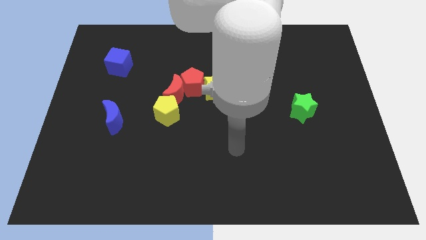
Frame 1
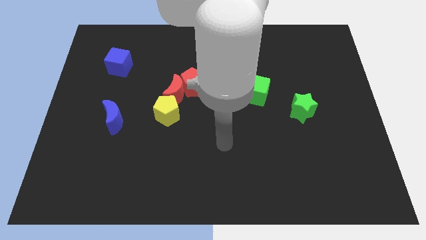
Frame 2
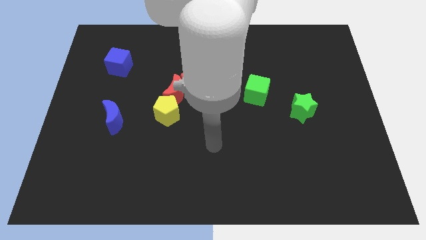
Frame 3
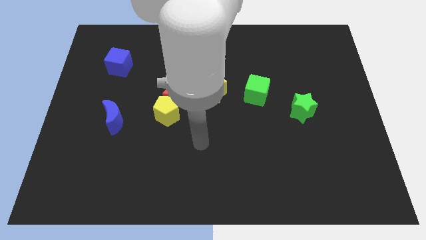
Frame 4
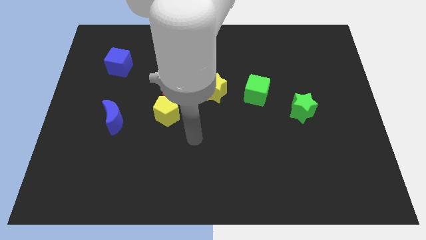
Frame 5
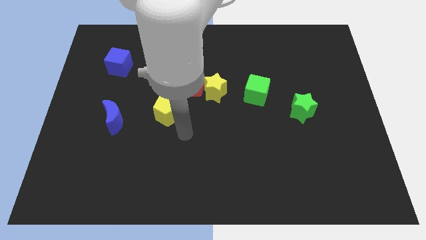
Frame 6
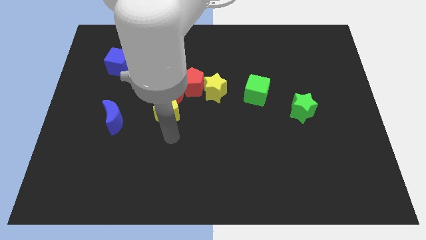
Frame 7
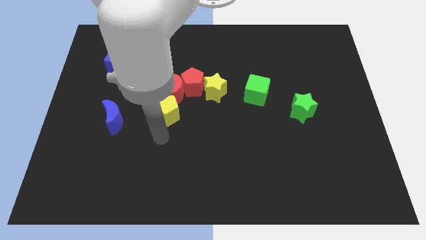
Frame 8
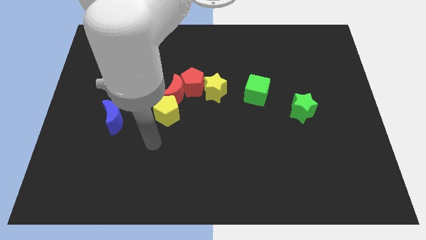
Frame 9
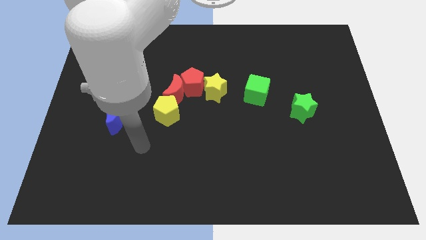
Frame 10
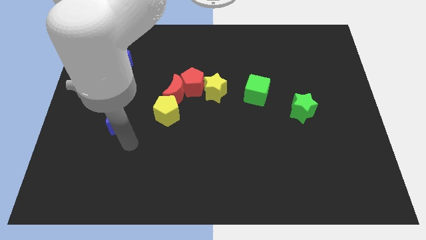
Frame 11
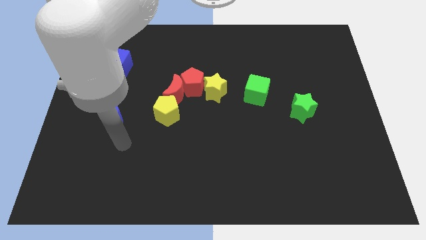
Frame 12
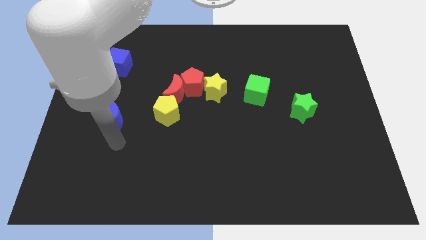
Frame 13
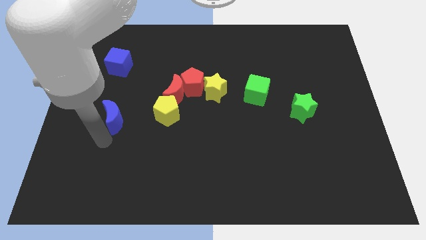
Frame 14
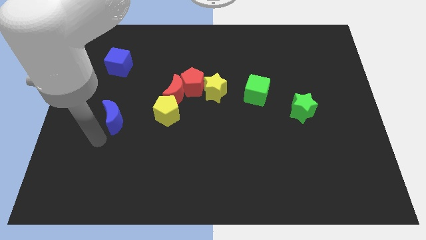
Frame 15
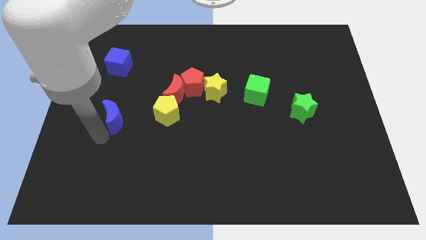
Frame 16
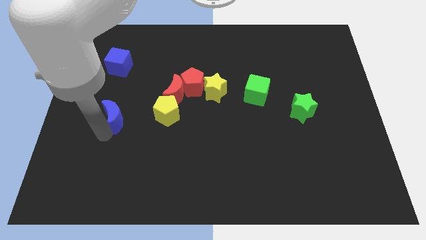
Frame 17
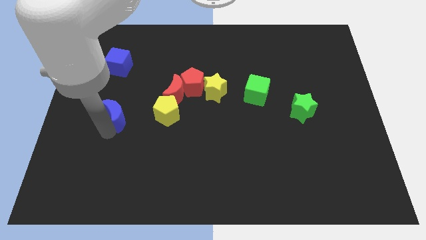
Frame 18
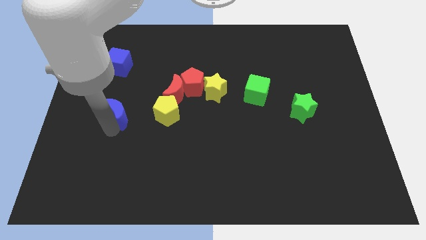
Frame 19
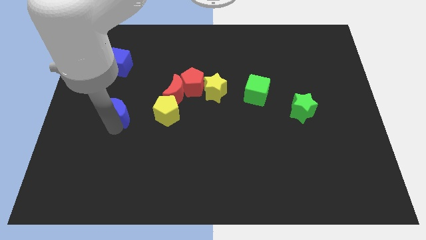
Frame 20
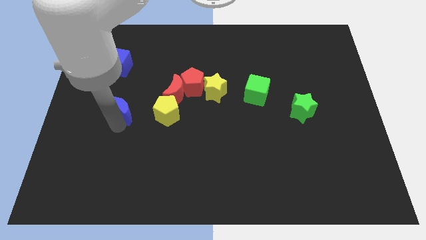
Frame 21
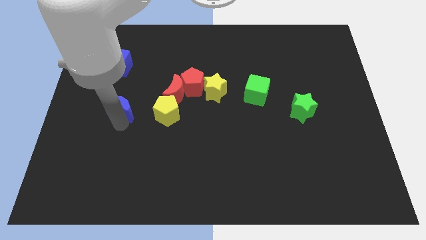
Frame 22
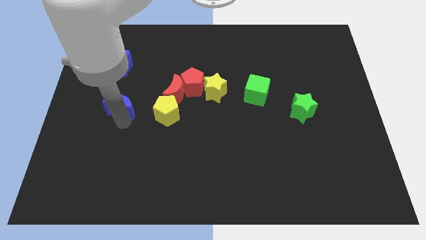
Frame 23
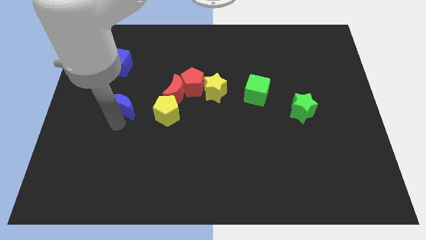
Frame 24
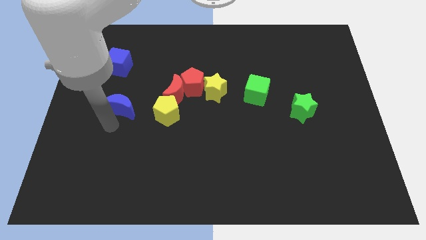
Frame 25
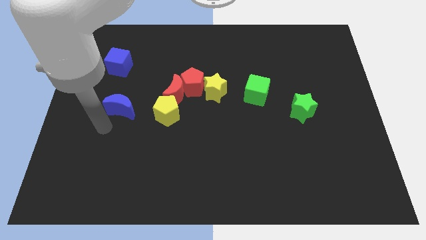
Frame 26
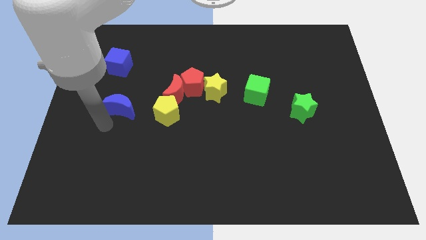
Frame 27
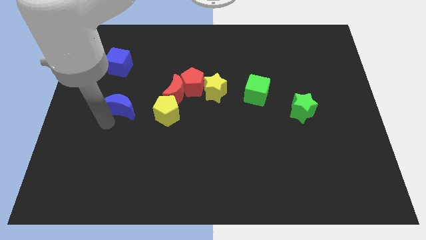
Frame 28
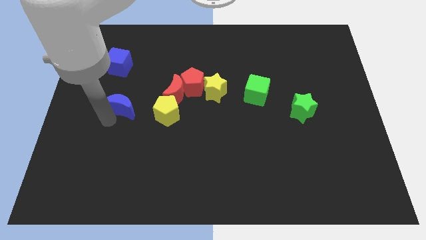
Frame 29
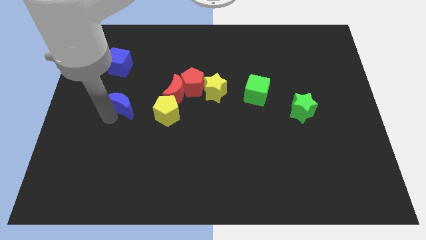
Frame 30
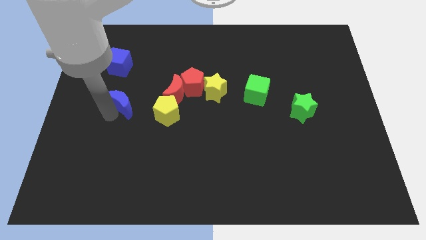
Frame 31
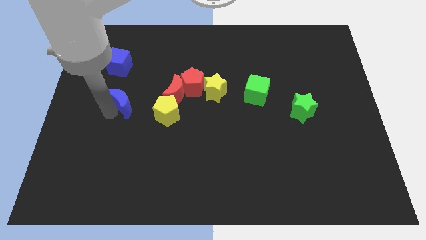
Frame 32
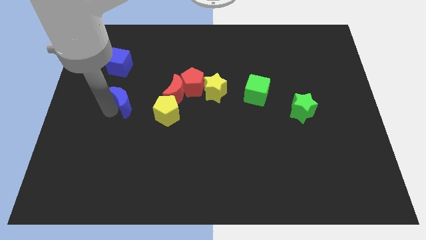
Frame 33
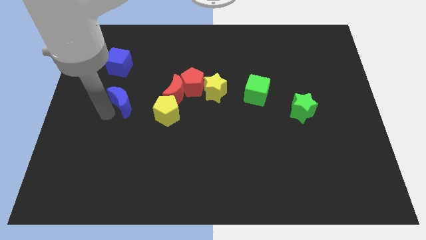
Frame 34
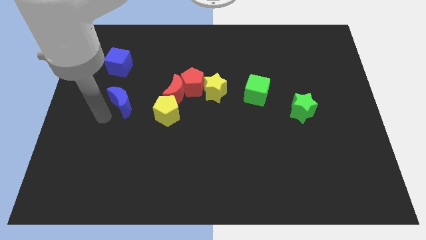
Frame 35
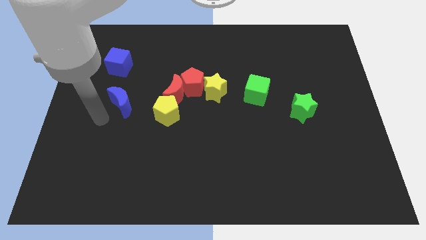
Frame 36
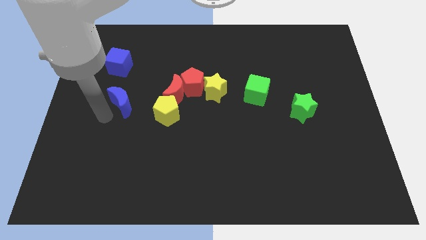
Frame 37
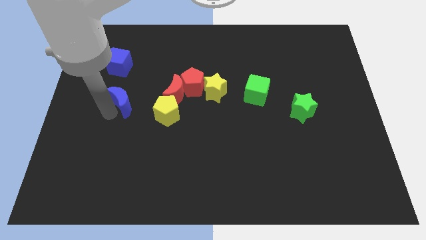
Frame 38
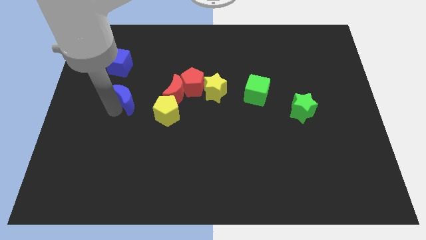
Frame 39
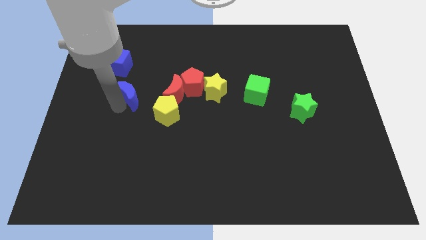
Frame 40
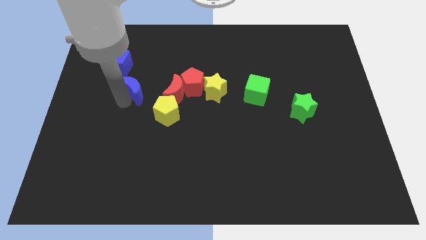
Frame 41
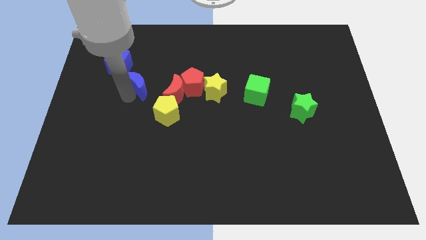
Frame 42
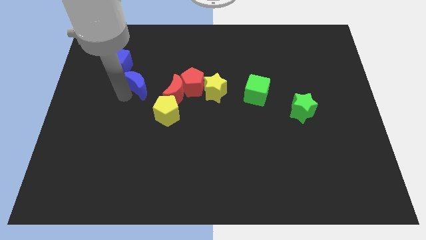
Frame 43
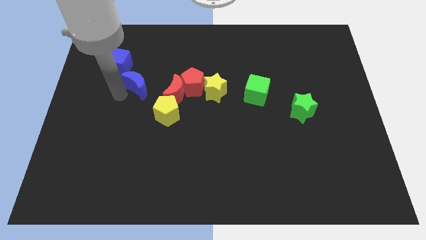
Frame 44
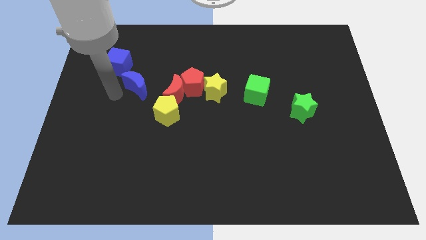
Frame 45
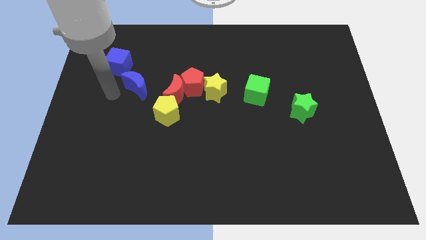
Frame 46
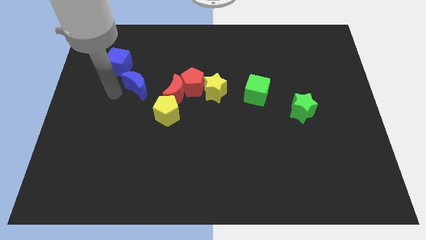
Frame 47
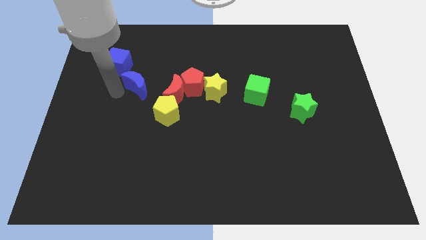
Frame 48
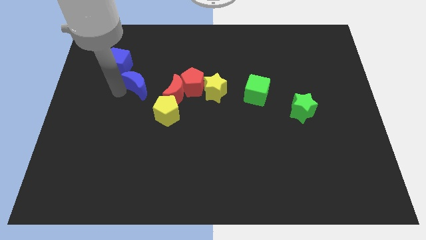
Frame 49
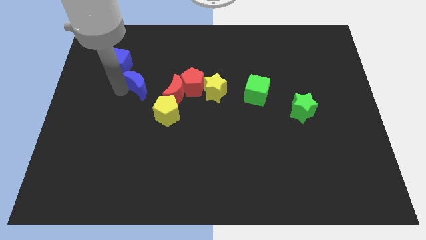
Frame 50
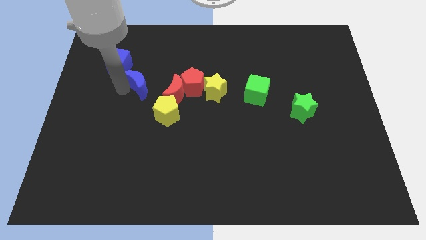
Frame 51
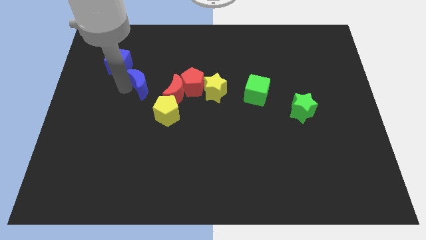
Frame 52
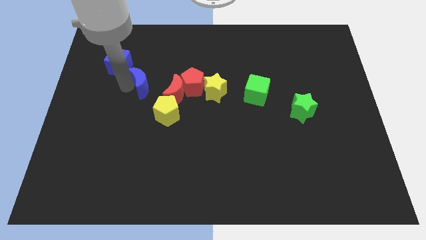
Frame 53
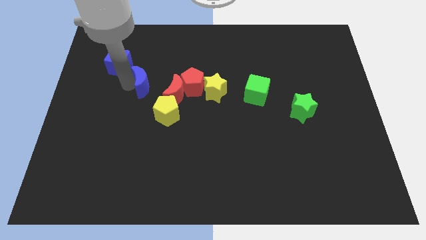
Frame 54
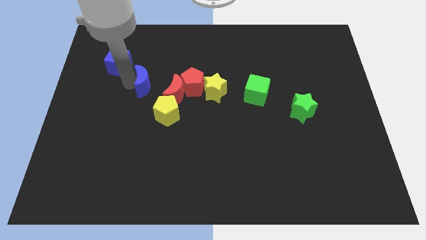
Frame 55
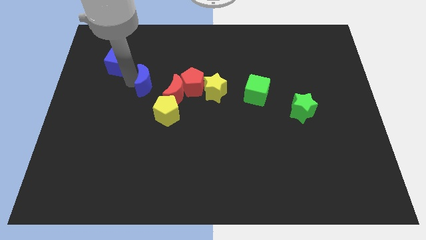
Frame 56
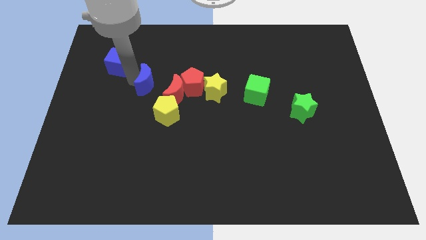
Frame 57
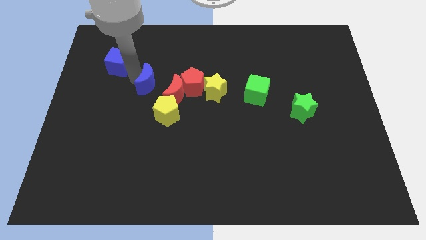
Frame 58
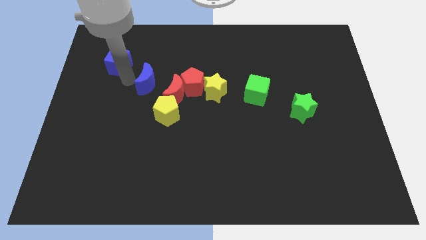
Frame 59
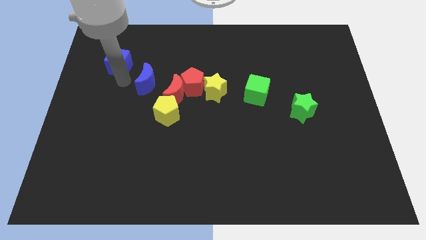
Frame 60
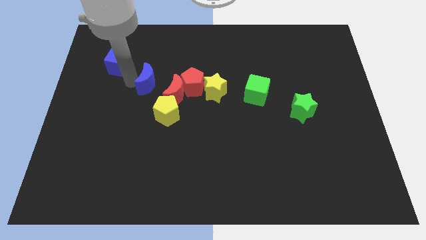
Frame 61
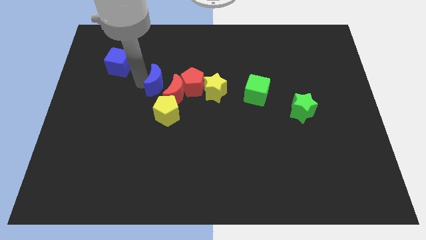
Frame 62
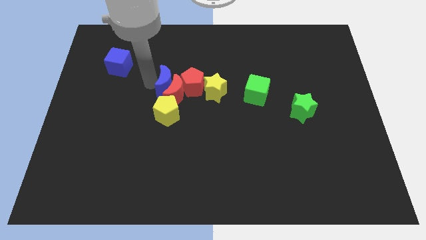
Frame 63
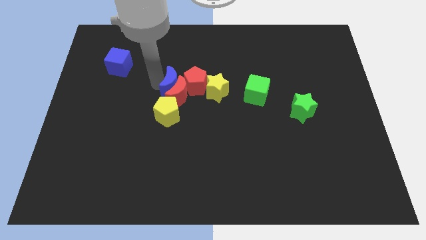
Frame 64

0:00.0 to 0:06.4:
push the blue moon towards the red pentagon
